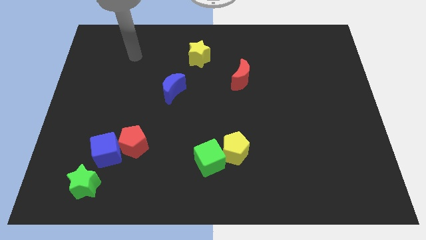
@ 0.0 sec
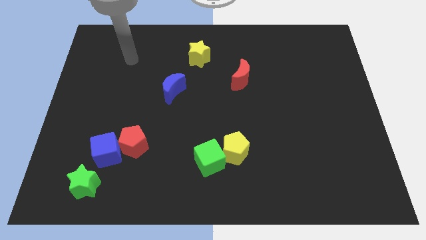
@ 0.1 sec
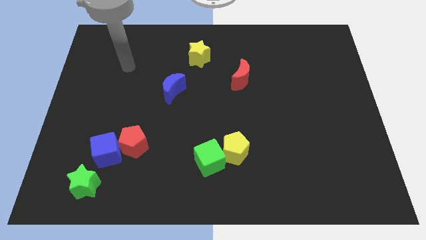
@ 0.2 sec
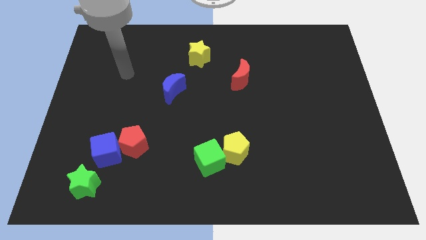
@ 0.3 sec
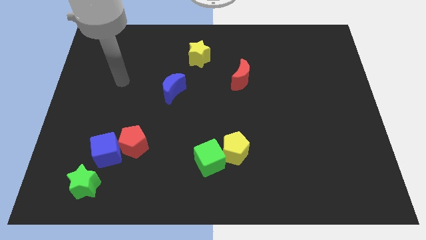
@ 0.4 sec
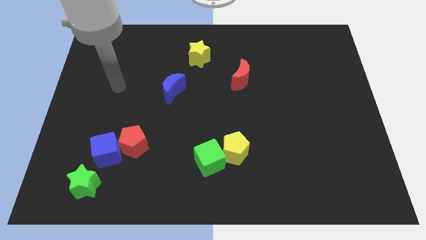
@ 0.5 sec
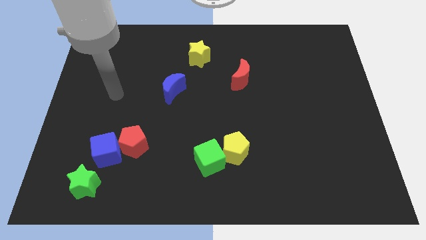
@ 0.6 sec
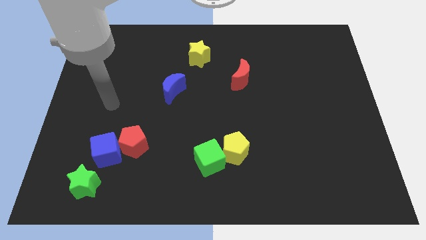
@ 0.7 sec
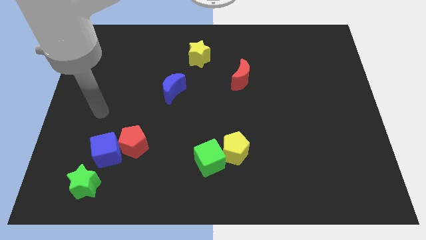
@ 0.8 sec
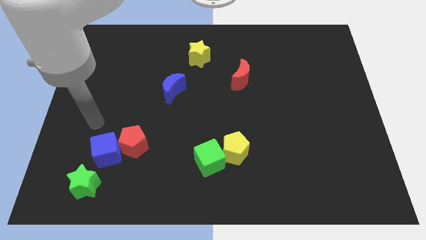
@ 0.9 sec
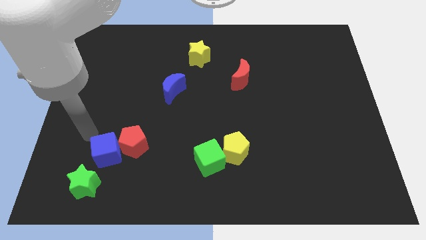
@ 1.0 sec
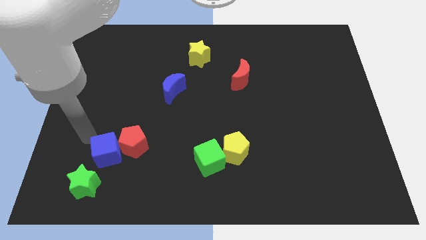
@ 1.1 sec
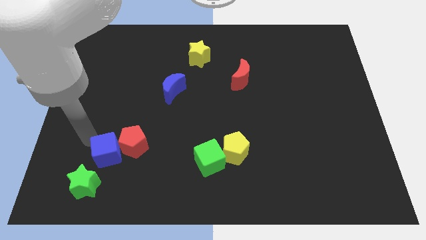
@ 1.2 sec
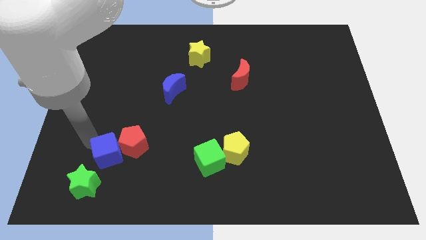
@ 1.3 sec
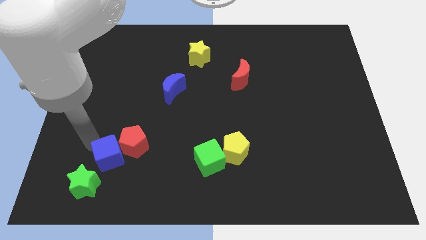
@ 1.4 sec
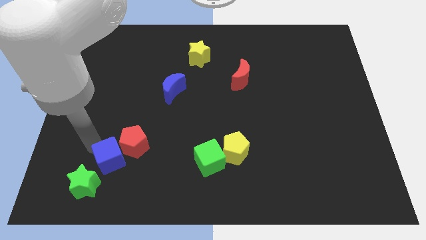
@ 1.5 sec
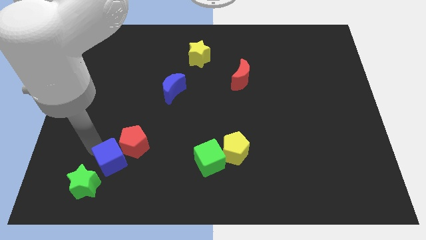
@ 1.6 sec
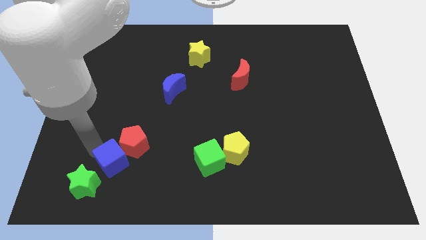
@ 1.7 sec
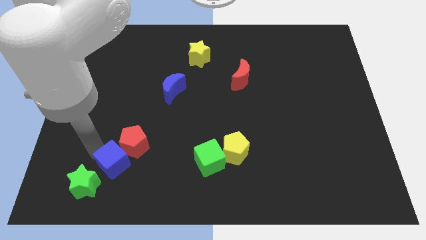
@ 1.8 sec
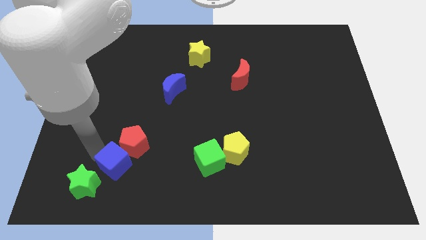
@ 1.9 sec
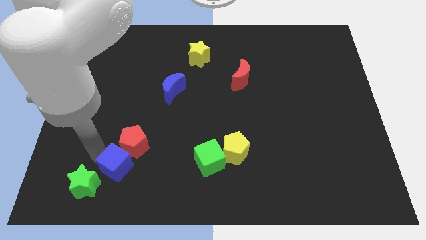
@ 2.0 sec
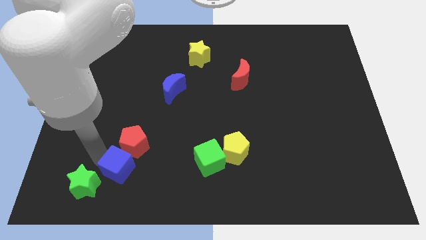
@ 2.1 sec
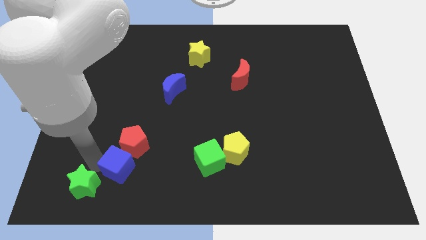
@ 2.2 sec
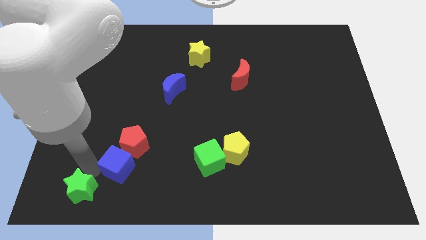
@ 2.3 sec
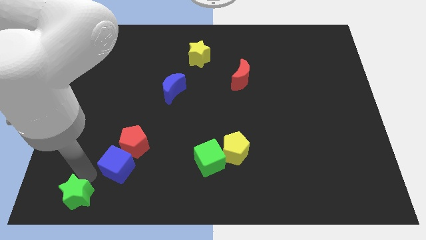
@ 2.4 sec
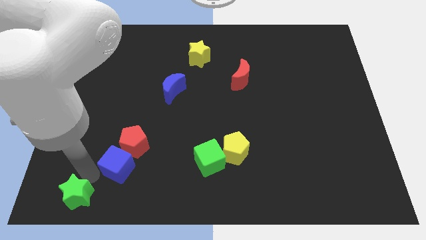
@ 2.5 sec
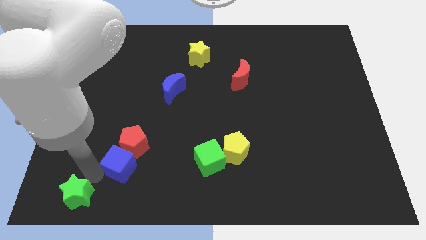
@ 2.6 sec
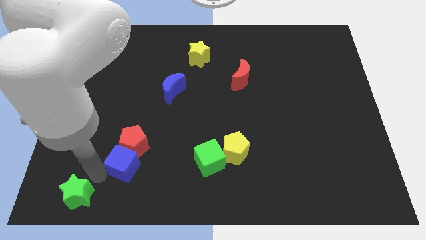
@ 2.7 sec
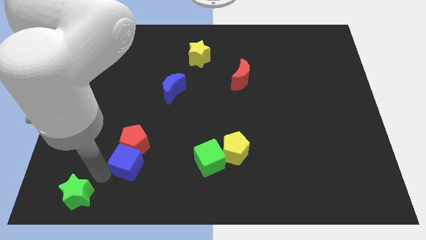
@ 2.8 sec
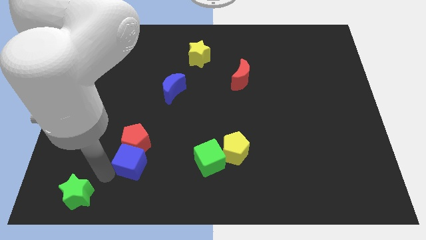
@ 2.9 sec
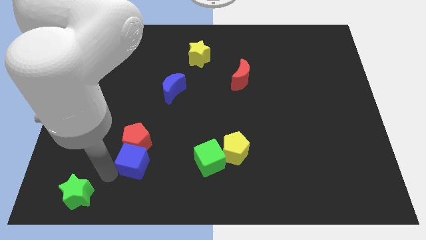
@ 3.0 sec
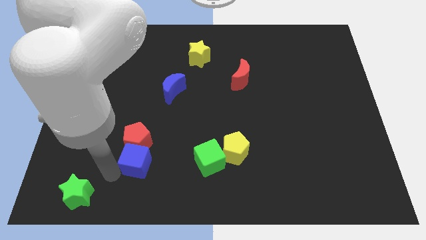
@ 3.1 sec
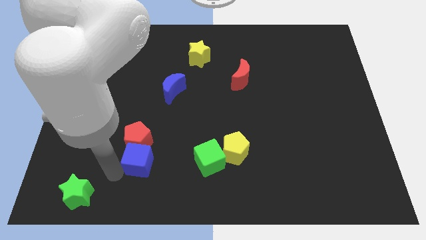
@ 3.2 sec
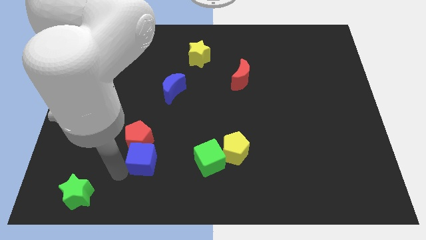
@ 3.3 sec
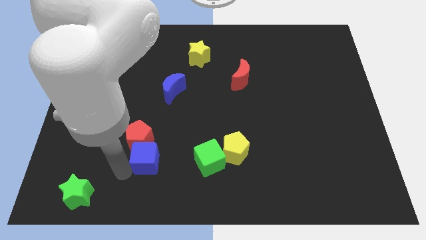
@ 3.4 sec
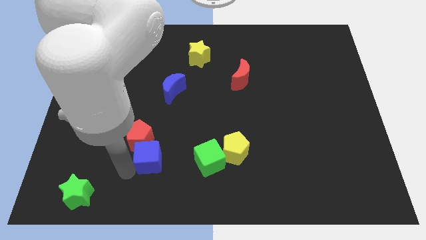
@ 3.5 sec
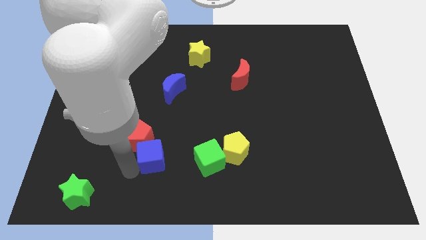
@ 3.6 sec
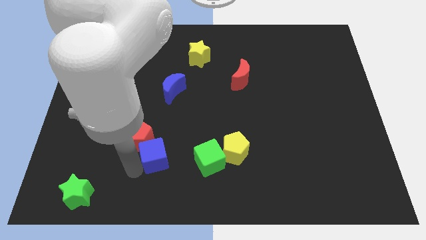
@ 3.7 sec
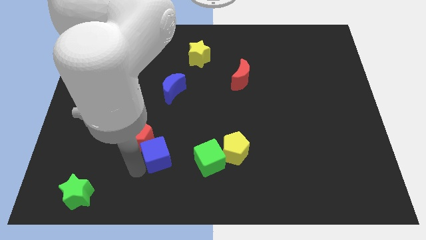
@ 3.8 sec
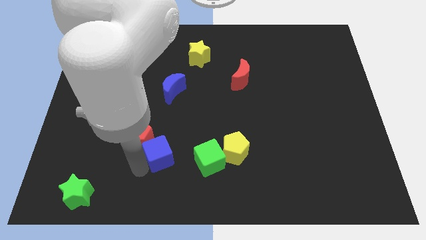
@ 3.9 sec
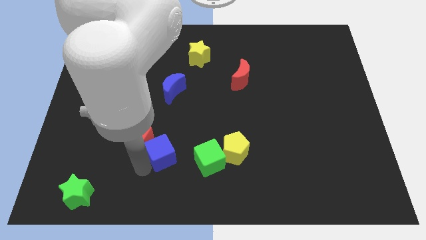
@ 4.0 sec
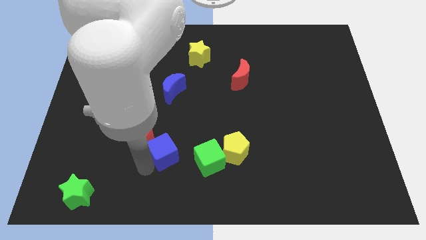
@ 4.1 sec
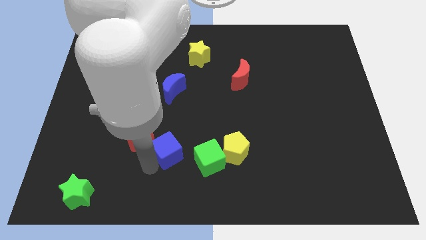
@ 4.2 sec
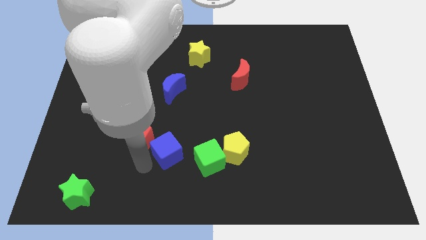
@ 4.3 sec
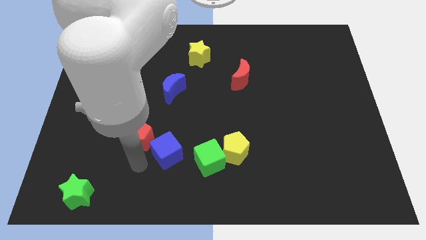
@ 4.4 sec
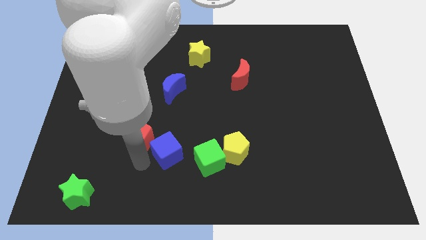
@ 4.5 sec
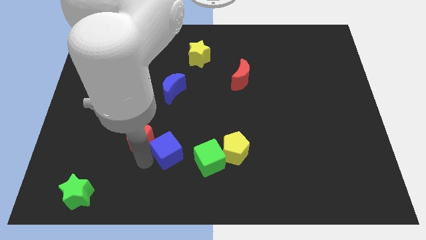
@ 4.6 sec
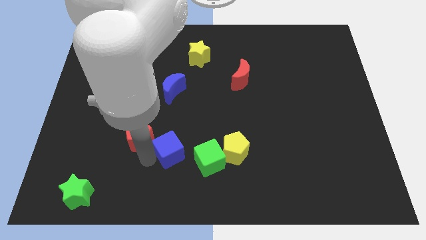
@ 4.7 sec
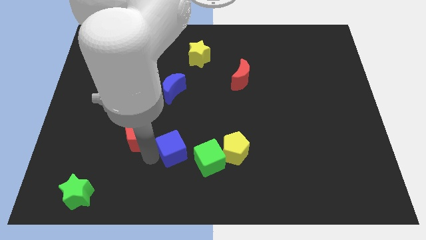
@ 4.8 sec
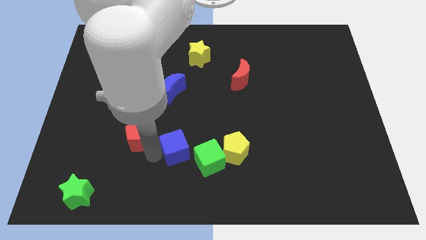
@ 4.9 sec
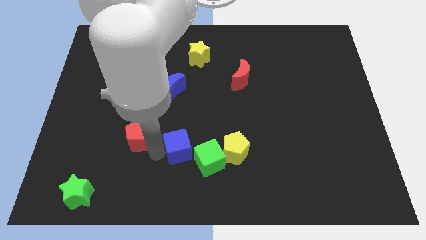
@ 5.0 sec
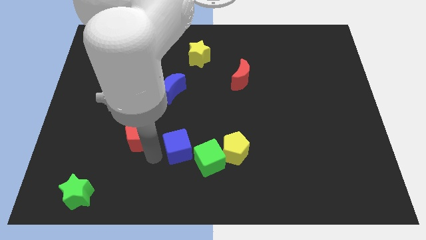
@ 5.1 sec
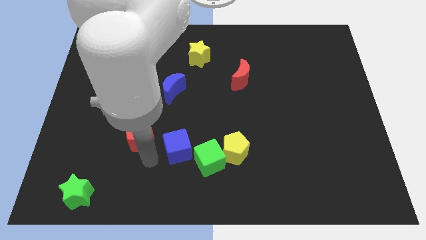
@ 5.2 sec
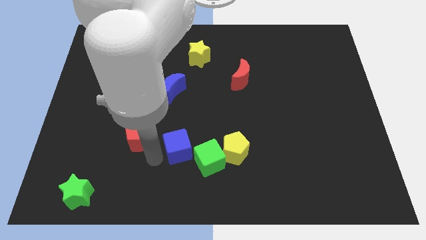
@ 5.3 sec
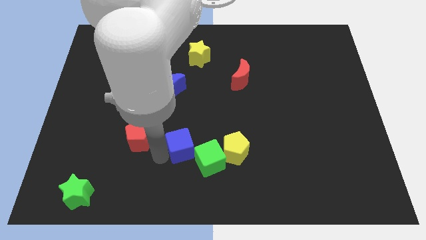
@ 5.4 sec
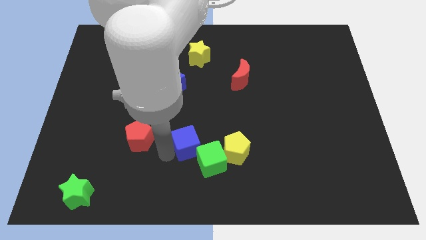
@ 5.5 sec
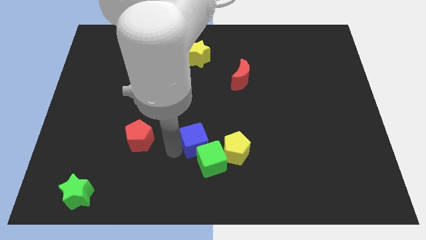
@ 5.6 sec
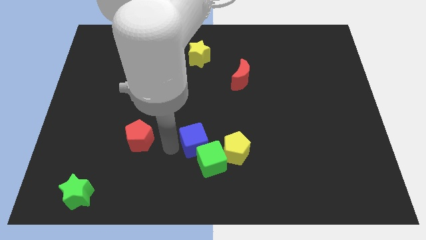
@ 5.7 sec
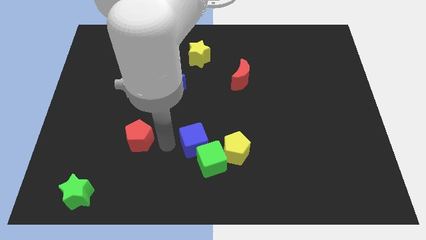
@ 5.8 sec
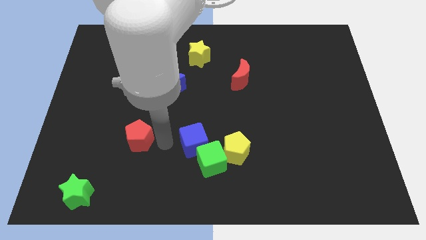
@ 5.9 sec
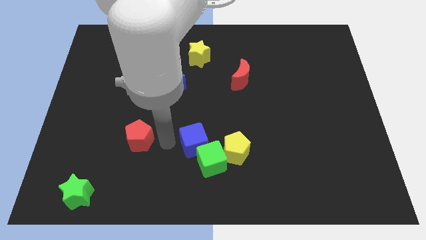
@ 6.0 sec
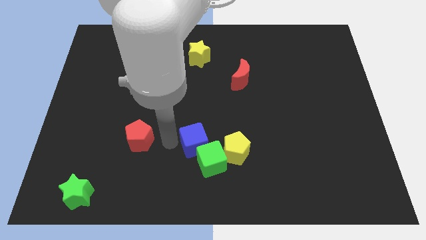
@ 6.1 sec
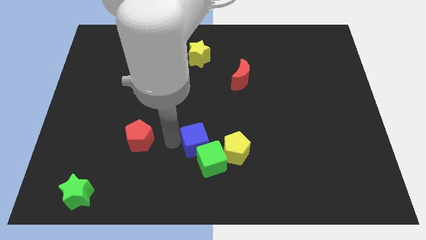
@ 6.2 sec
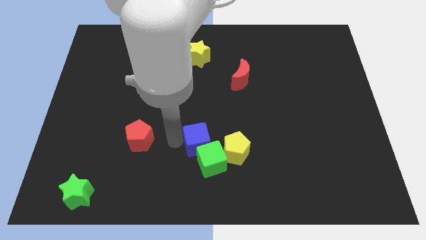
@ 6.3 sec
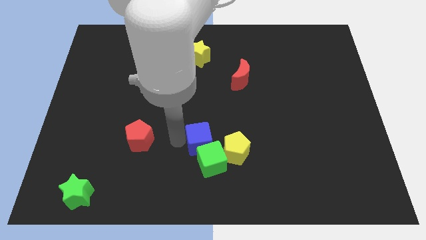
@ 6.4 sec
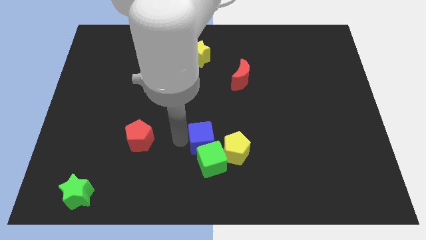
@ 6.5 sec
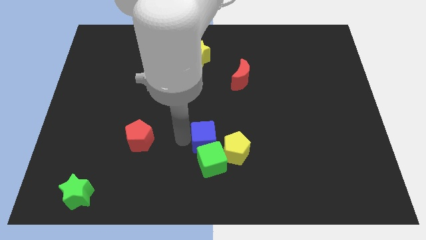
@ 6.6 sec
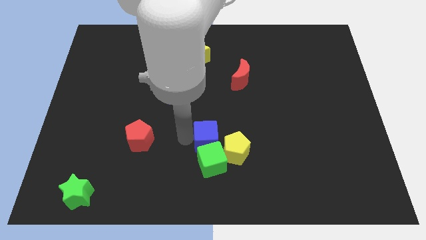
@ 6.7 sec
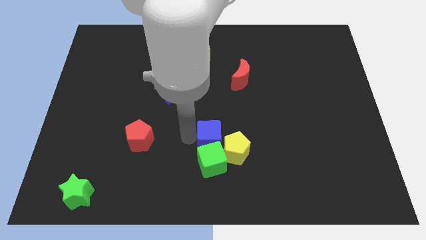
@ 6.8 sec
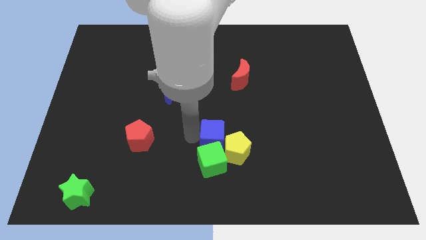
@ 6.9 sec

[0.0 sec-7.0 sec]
push the blue cube towards the yellow pentagon

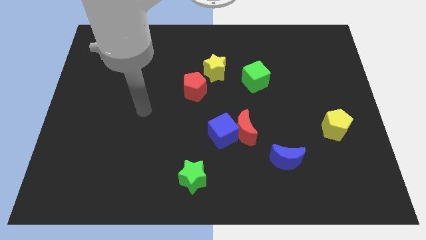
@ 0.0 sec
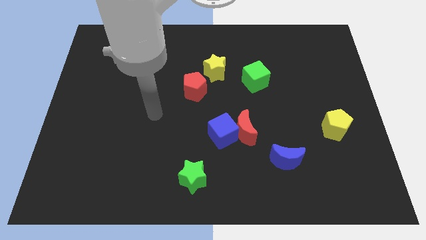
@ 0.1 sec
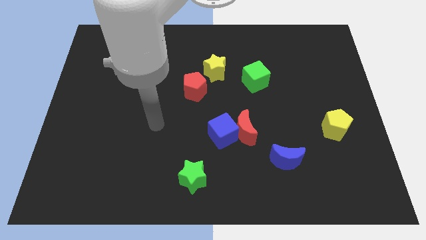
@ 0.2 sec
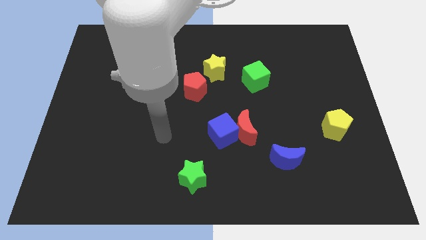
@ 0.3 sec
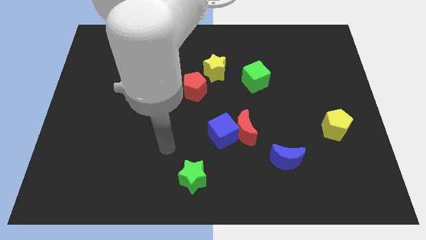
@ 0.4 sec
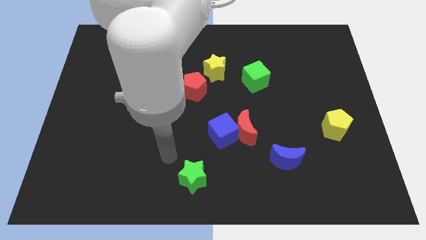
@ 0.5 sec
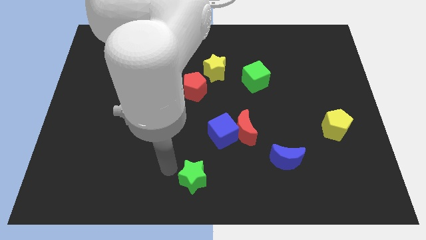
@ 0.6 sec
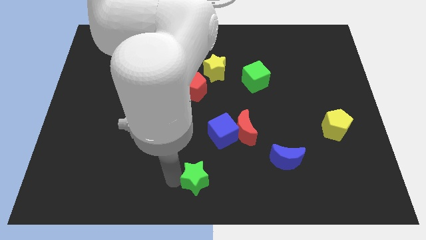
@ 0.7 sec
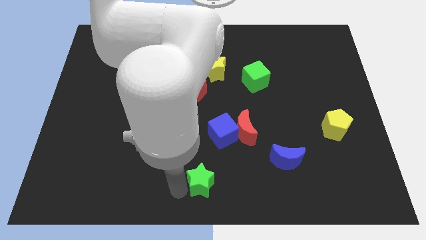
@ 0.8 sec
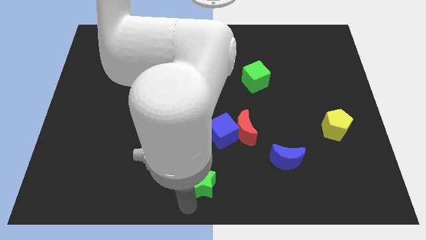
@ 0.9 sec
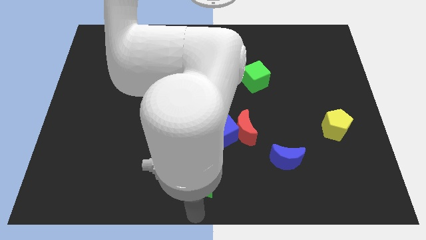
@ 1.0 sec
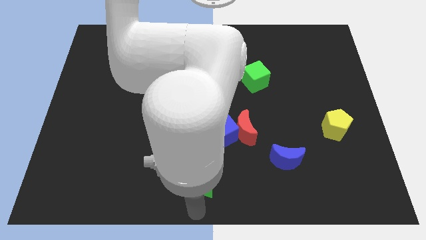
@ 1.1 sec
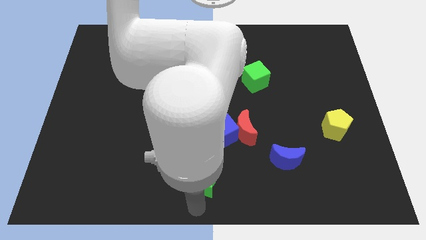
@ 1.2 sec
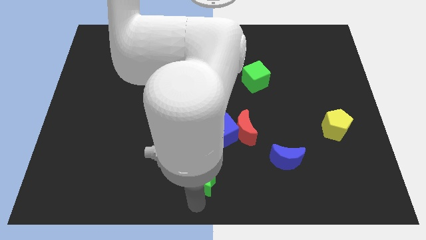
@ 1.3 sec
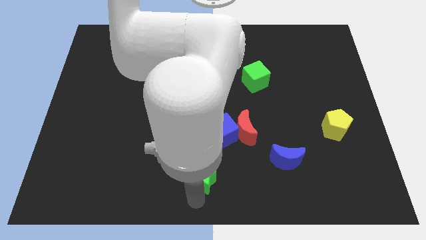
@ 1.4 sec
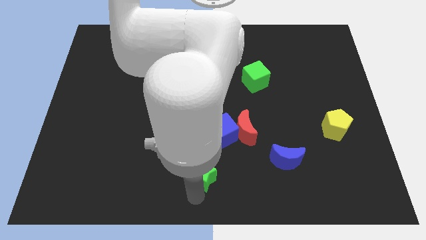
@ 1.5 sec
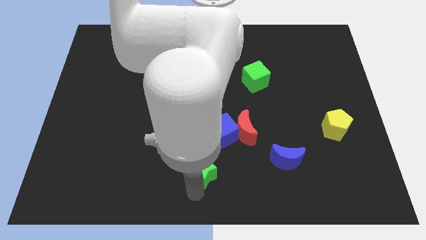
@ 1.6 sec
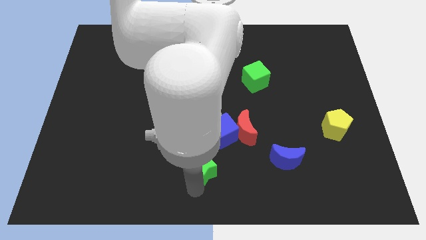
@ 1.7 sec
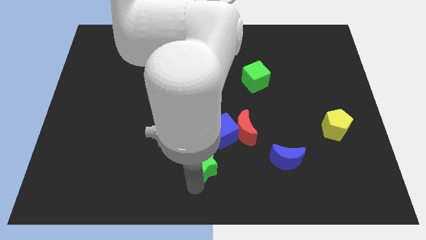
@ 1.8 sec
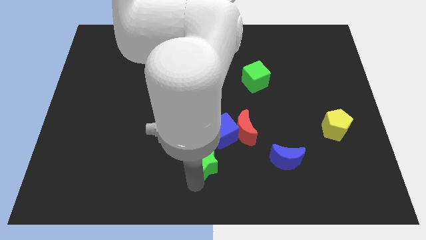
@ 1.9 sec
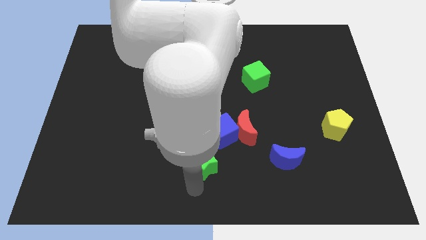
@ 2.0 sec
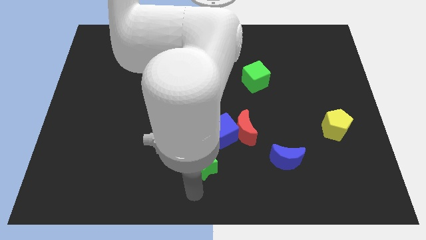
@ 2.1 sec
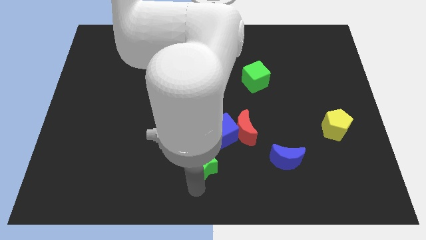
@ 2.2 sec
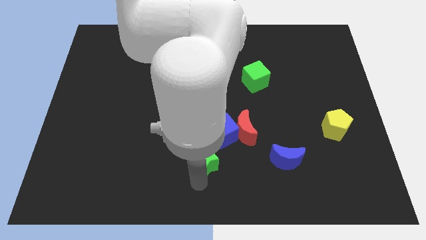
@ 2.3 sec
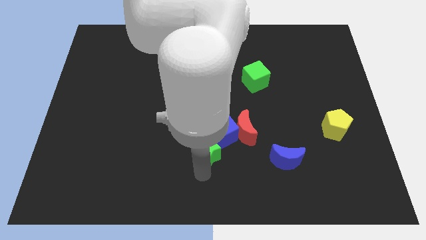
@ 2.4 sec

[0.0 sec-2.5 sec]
slide the green star close to the blue cube
